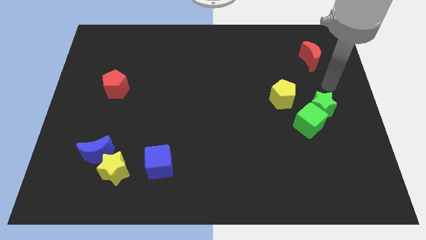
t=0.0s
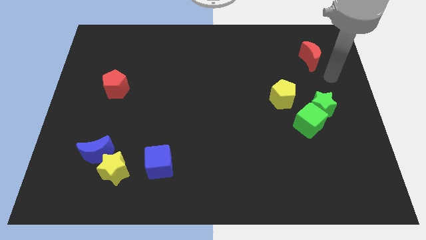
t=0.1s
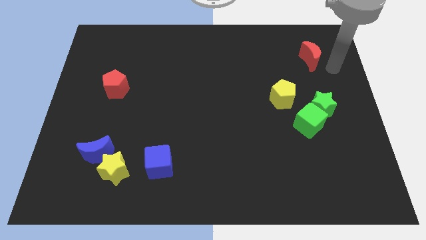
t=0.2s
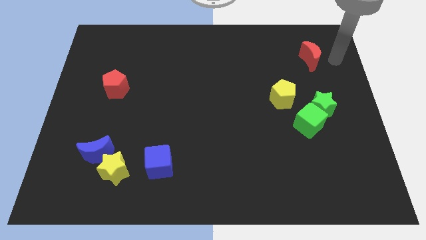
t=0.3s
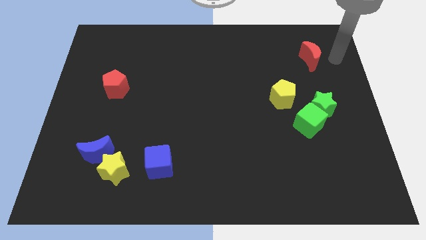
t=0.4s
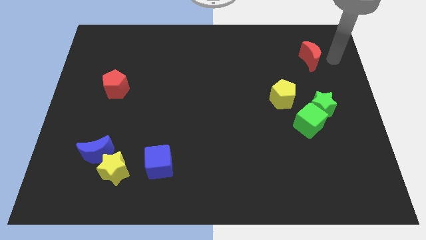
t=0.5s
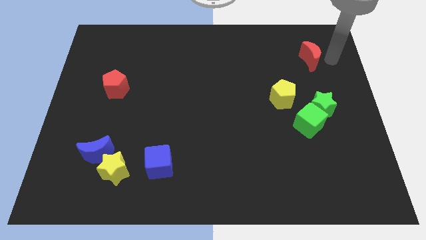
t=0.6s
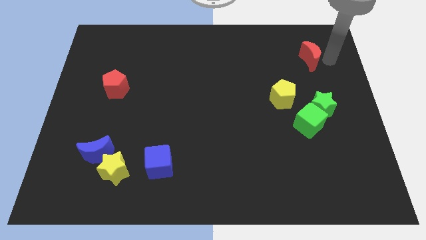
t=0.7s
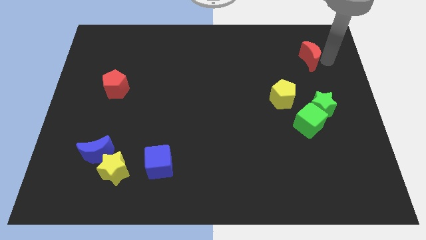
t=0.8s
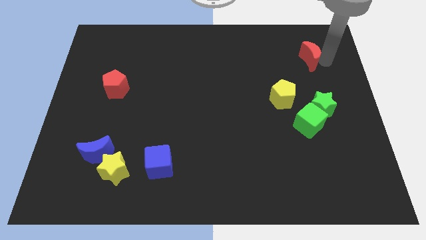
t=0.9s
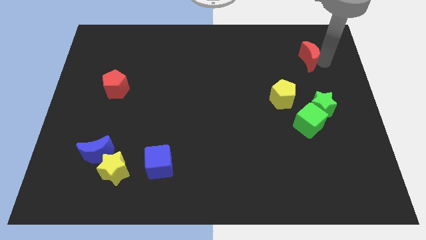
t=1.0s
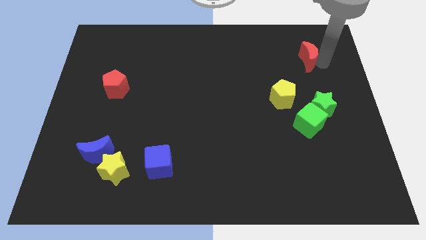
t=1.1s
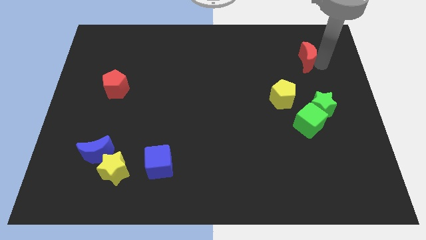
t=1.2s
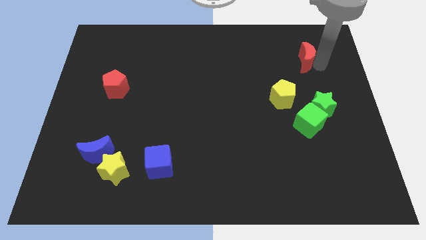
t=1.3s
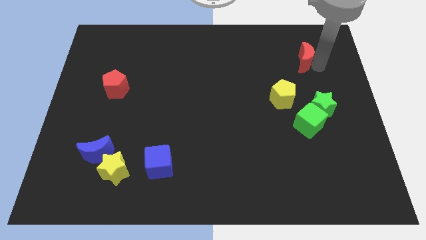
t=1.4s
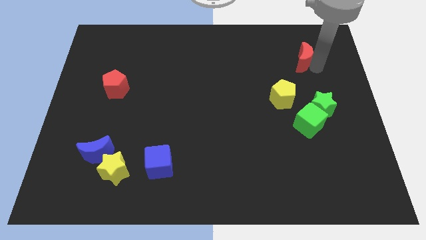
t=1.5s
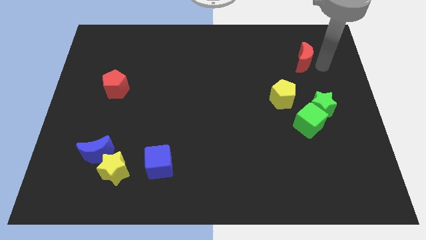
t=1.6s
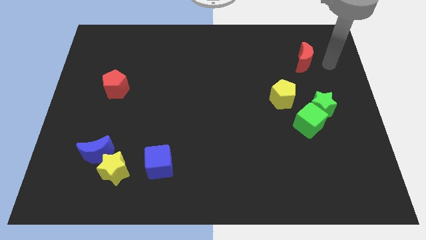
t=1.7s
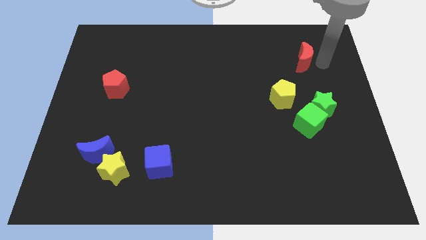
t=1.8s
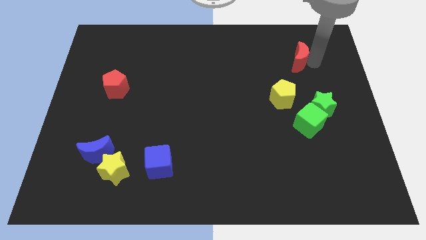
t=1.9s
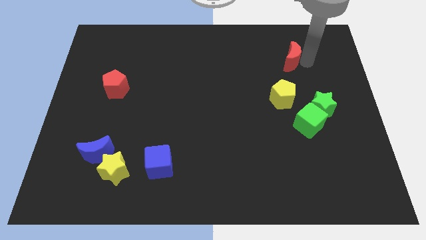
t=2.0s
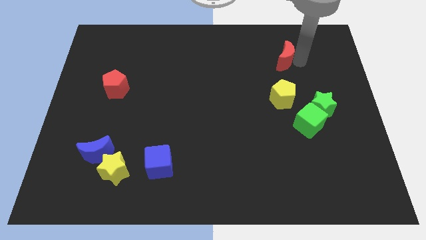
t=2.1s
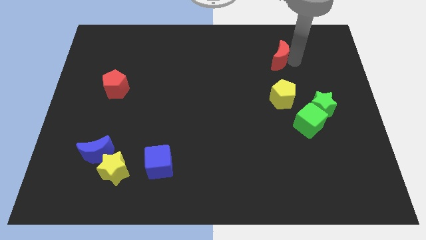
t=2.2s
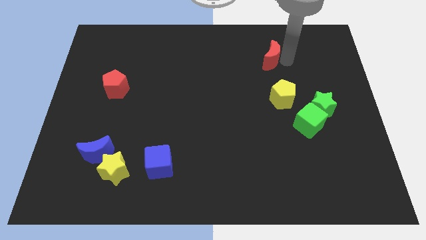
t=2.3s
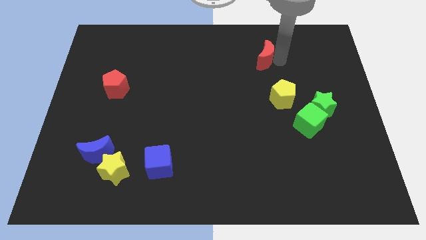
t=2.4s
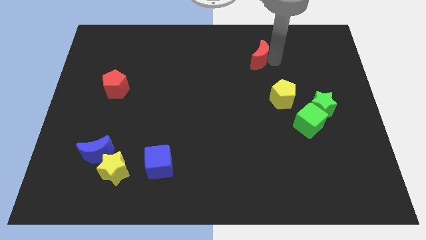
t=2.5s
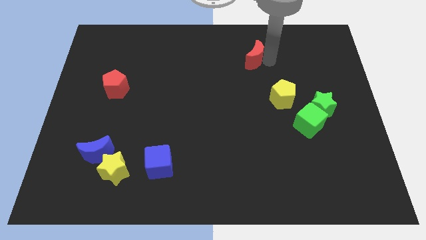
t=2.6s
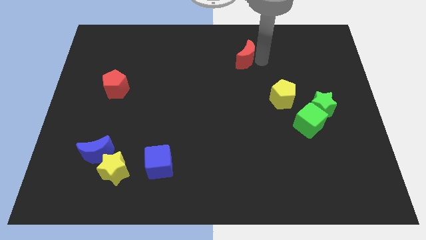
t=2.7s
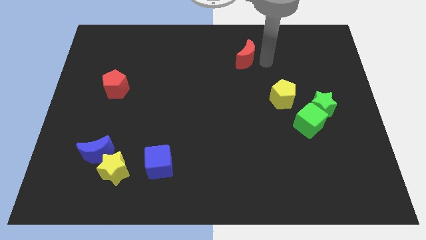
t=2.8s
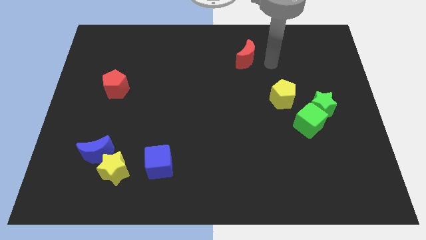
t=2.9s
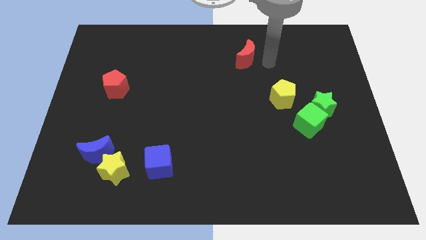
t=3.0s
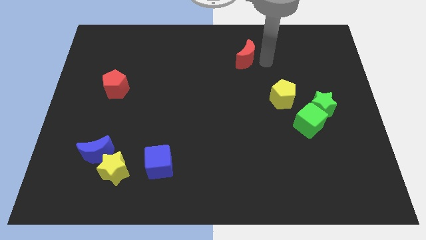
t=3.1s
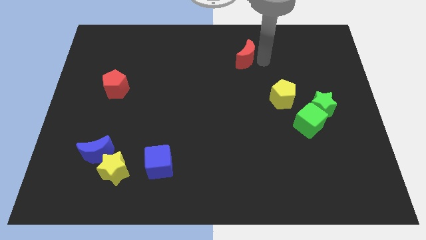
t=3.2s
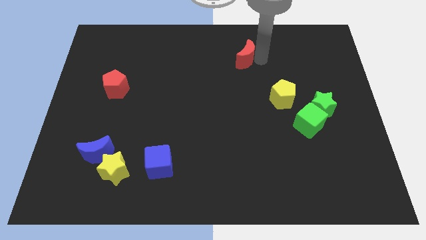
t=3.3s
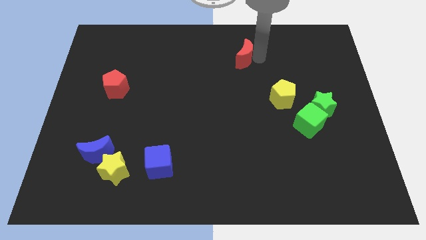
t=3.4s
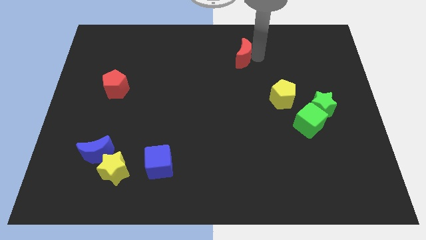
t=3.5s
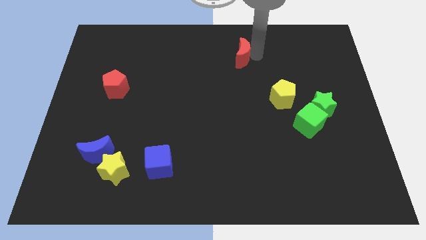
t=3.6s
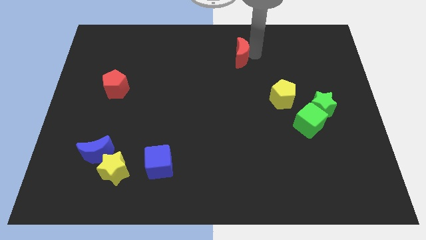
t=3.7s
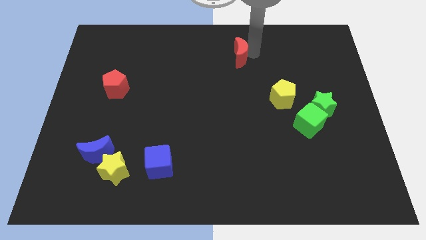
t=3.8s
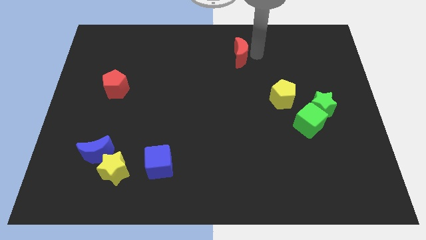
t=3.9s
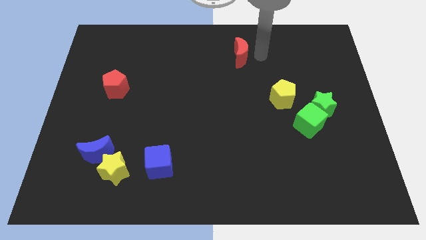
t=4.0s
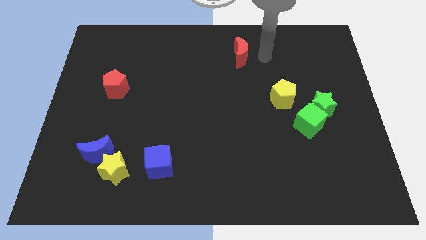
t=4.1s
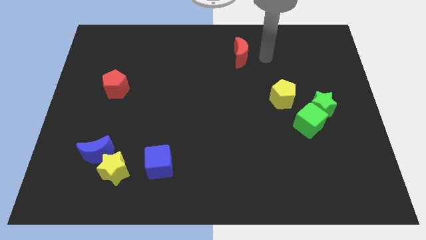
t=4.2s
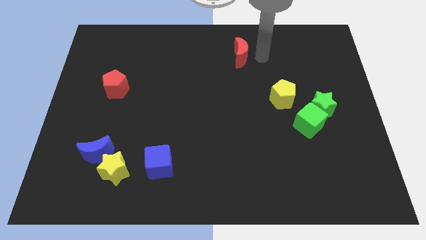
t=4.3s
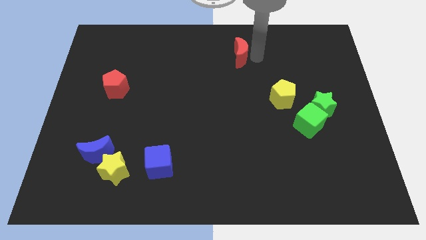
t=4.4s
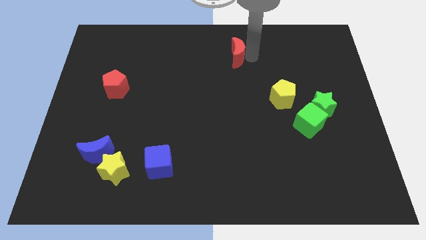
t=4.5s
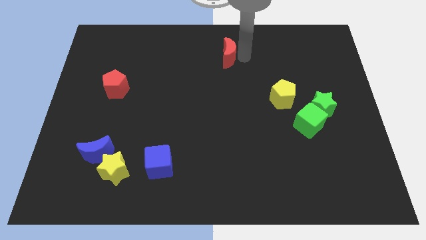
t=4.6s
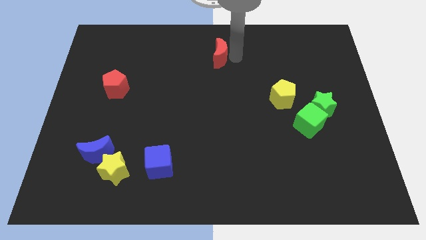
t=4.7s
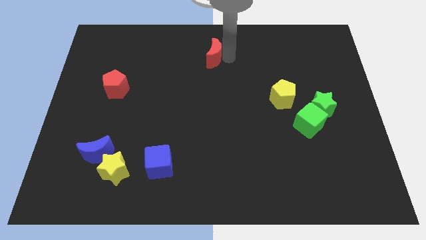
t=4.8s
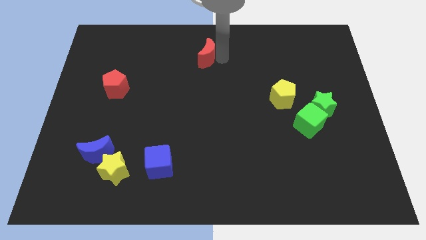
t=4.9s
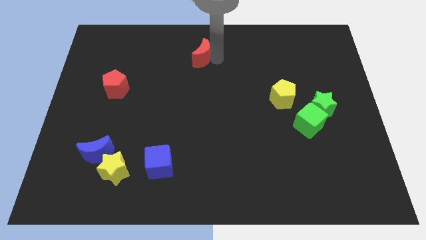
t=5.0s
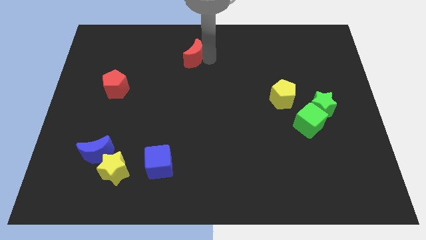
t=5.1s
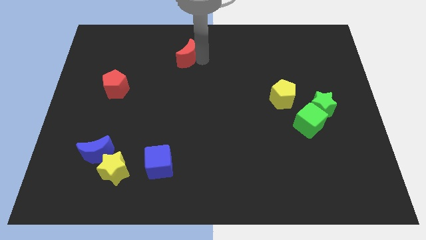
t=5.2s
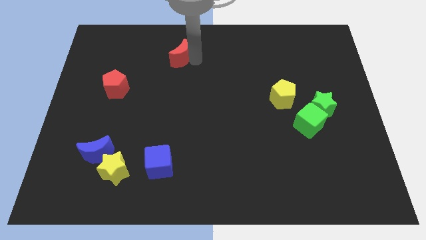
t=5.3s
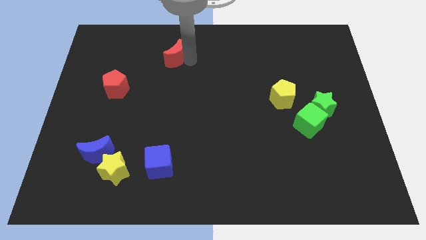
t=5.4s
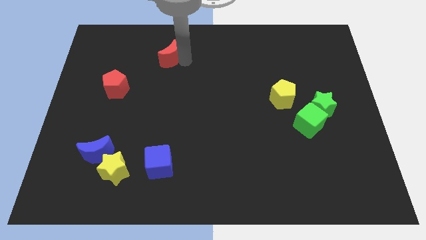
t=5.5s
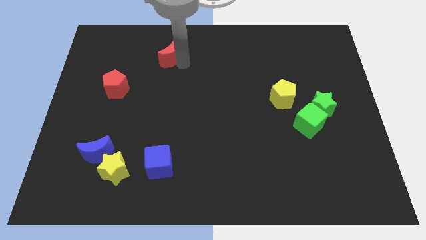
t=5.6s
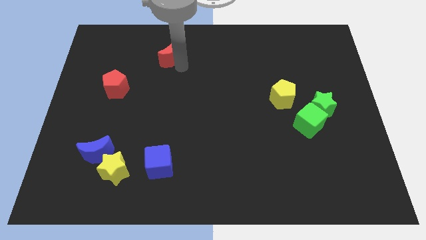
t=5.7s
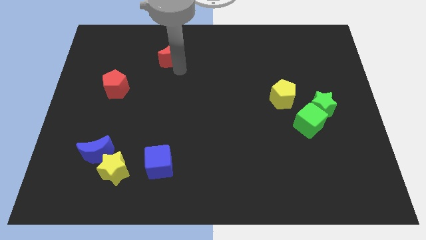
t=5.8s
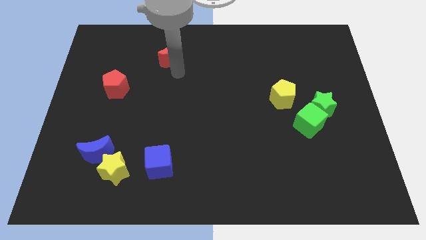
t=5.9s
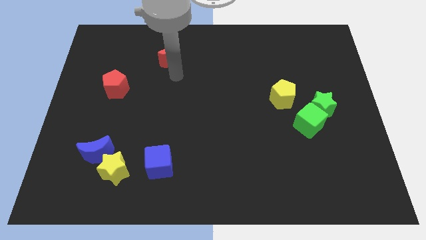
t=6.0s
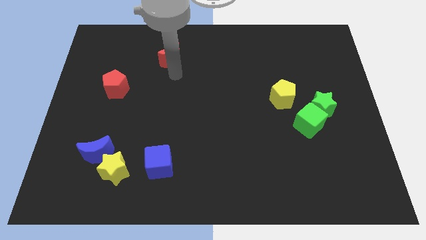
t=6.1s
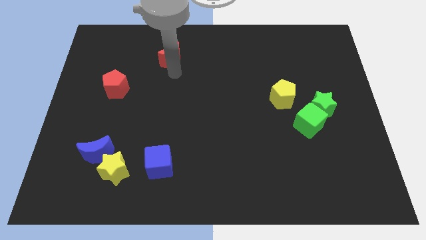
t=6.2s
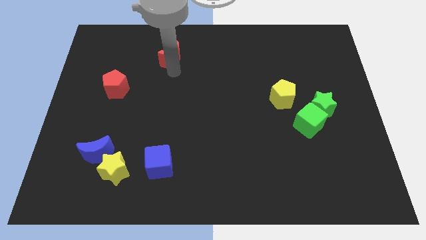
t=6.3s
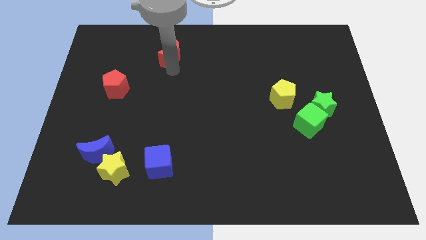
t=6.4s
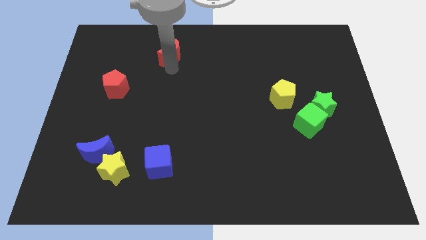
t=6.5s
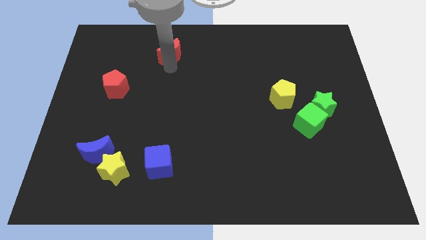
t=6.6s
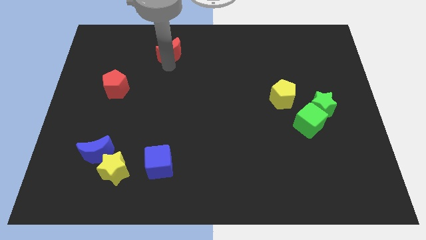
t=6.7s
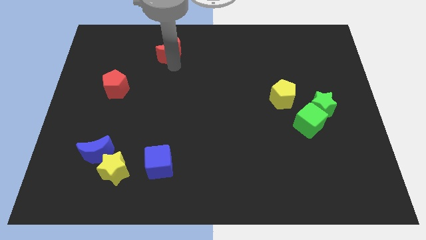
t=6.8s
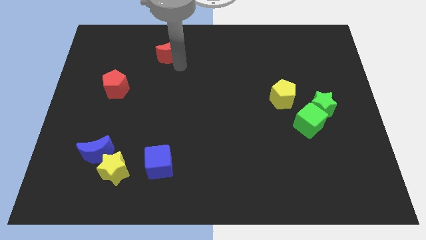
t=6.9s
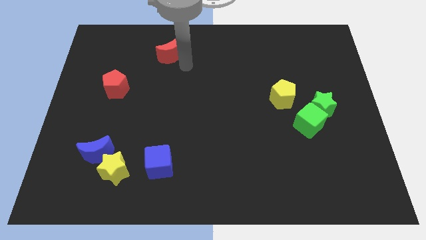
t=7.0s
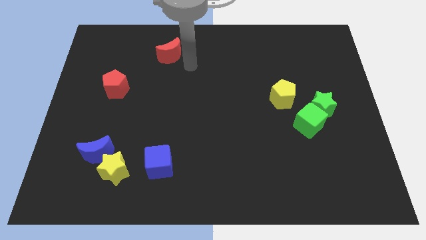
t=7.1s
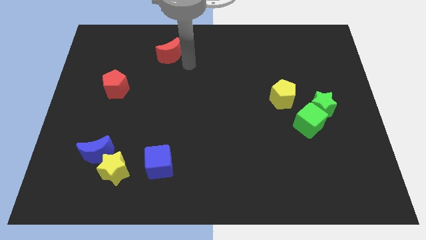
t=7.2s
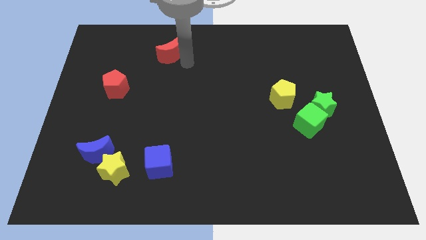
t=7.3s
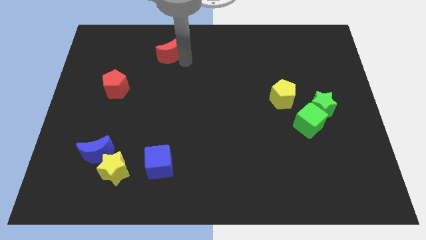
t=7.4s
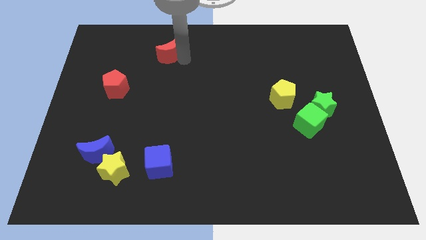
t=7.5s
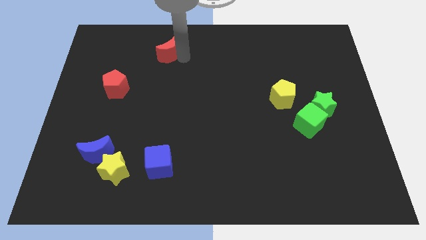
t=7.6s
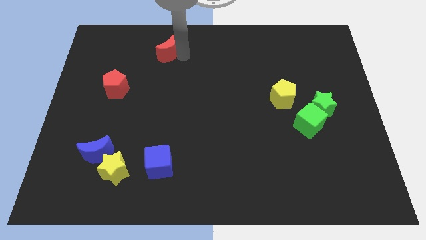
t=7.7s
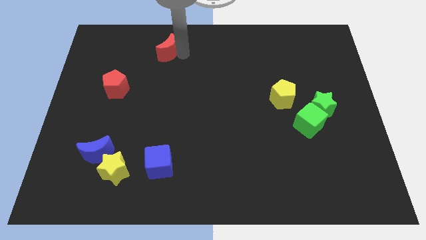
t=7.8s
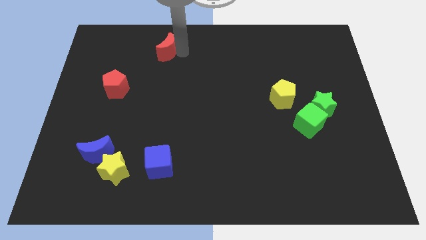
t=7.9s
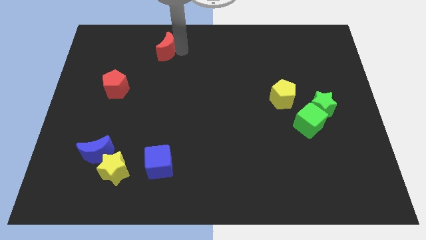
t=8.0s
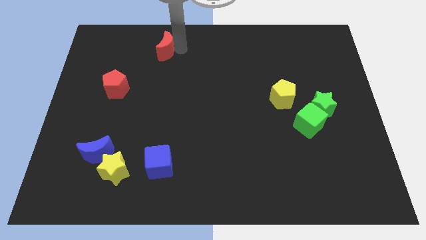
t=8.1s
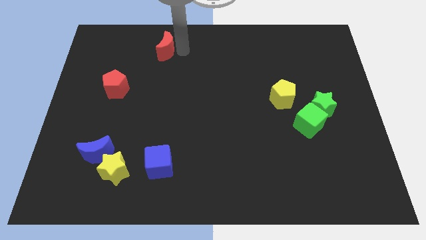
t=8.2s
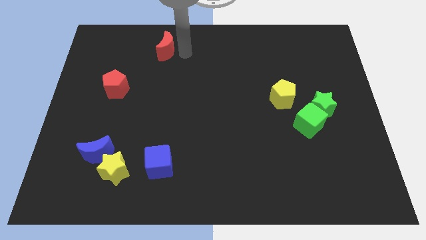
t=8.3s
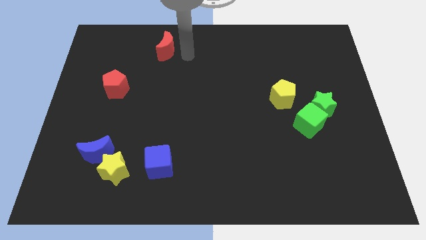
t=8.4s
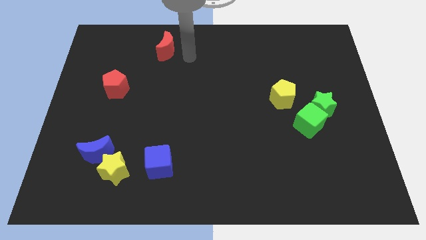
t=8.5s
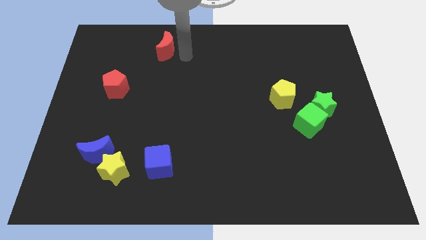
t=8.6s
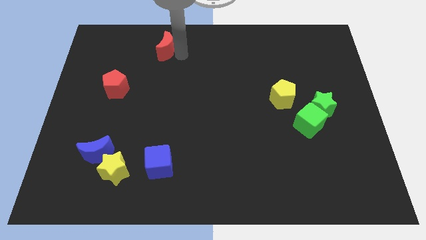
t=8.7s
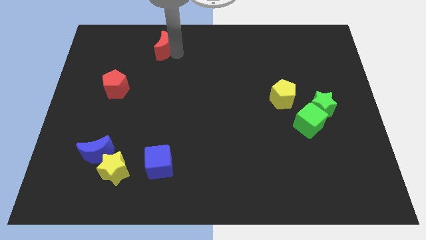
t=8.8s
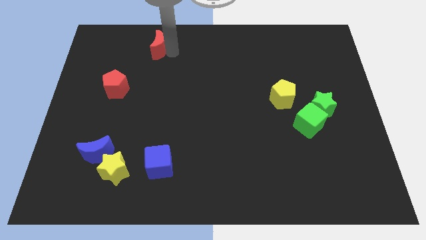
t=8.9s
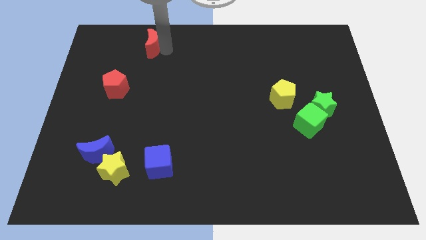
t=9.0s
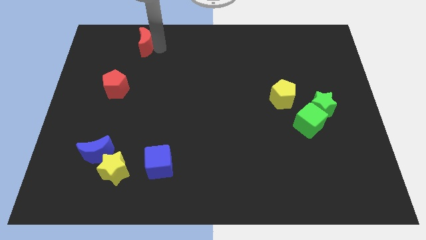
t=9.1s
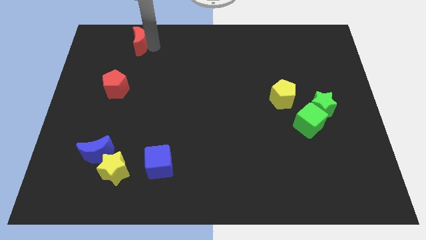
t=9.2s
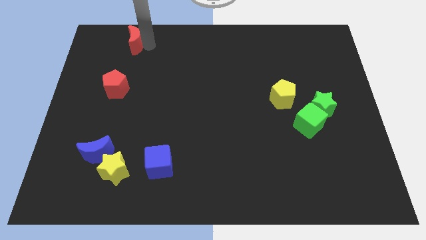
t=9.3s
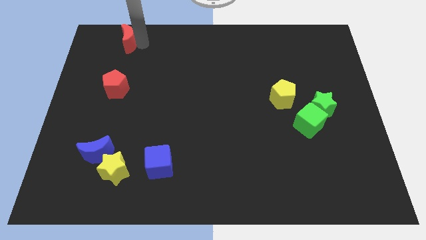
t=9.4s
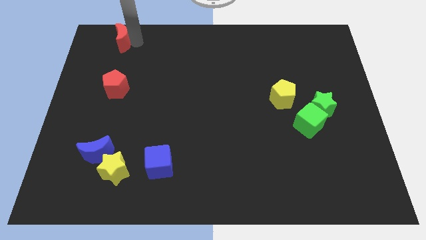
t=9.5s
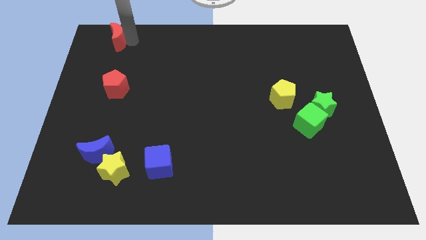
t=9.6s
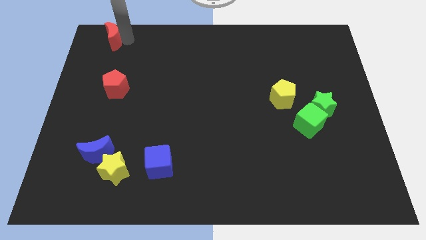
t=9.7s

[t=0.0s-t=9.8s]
put the red moon to the top left of the board
